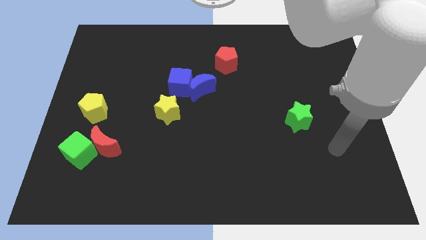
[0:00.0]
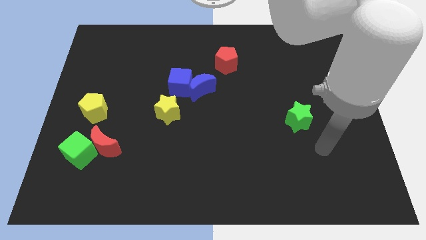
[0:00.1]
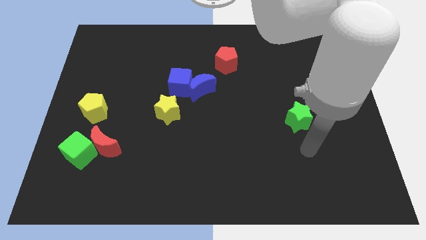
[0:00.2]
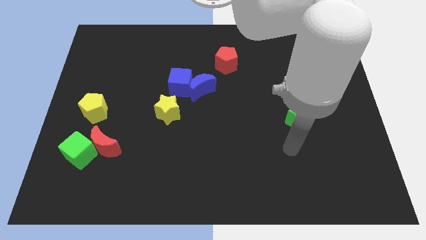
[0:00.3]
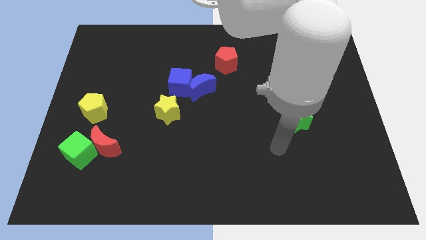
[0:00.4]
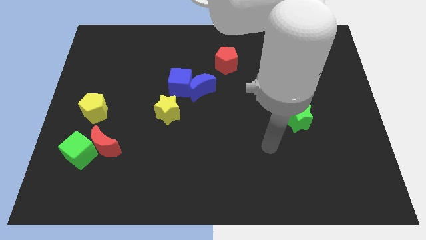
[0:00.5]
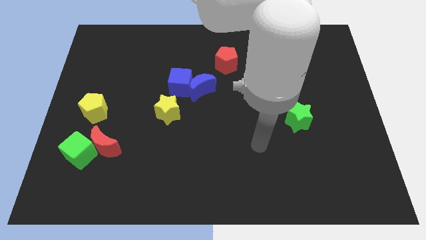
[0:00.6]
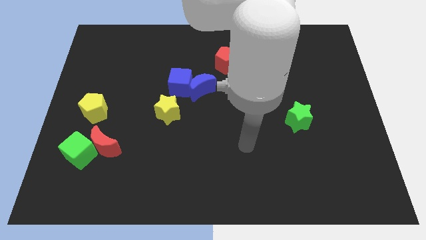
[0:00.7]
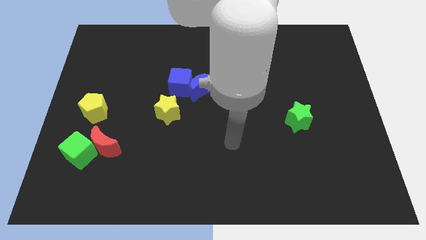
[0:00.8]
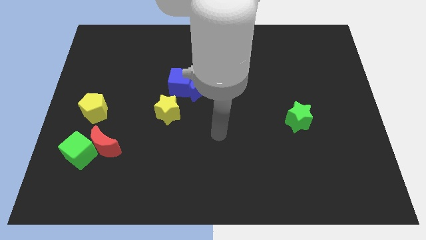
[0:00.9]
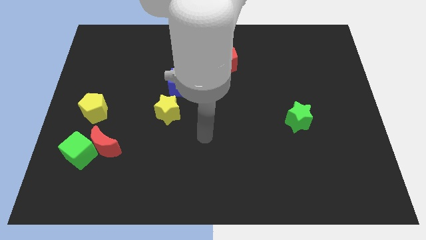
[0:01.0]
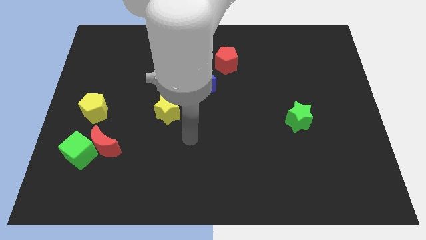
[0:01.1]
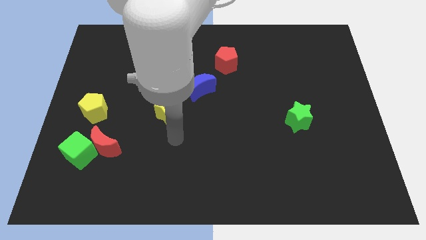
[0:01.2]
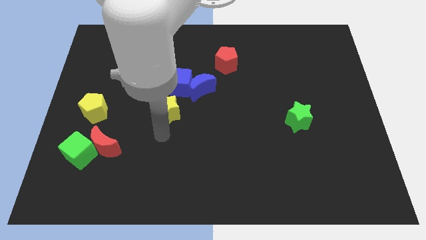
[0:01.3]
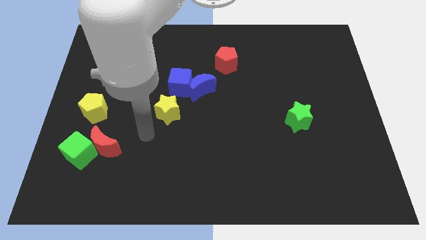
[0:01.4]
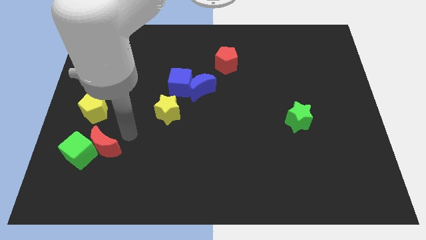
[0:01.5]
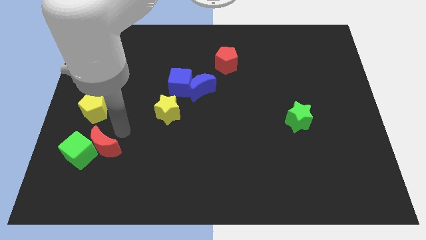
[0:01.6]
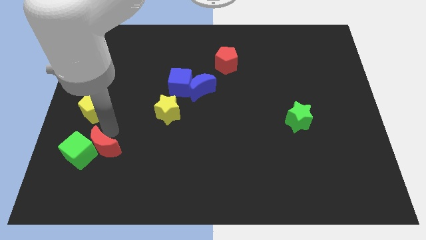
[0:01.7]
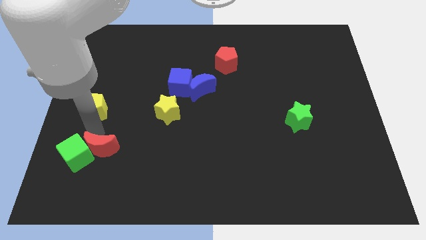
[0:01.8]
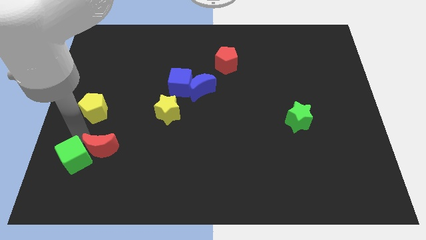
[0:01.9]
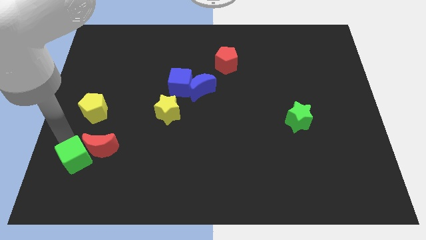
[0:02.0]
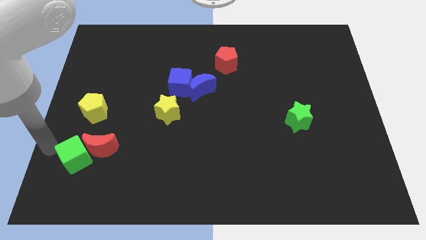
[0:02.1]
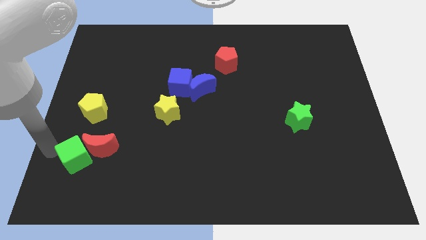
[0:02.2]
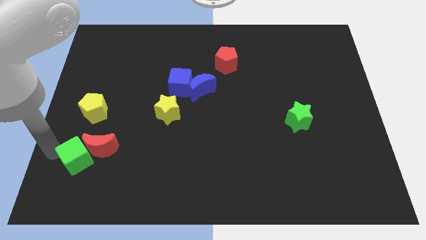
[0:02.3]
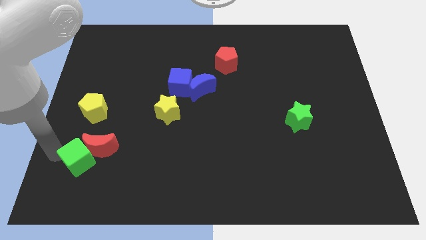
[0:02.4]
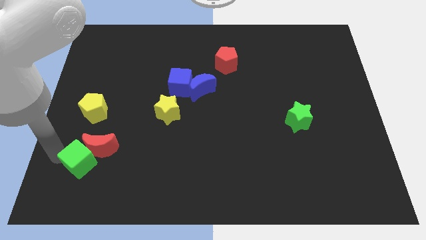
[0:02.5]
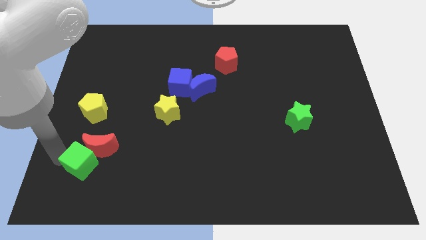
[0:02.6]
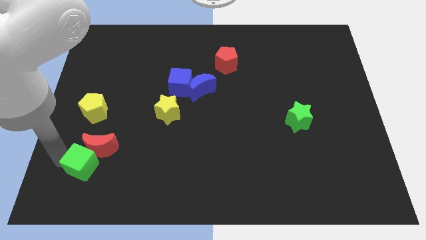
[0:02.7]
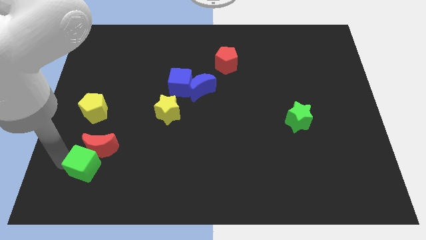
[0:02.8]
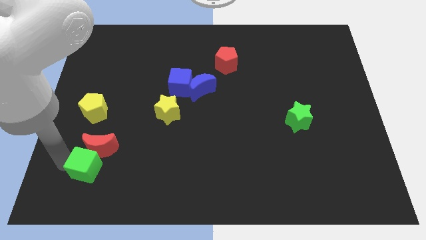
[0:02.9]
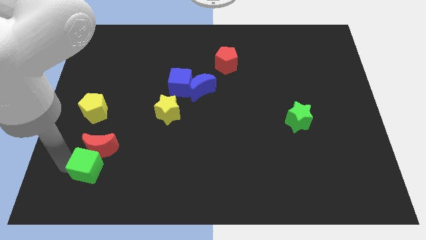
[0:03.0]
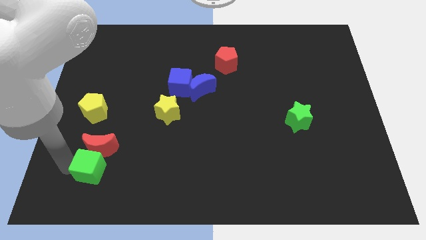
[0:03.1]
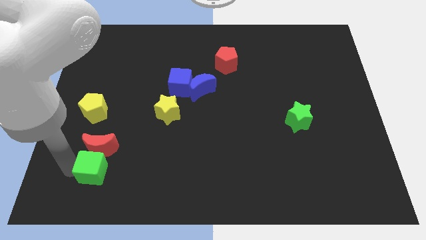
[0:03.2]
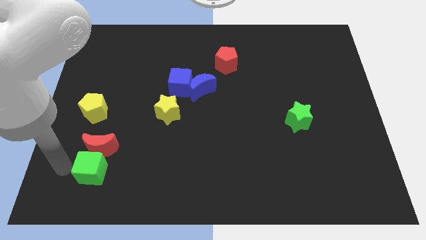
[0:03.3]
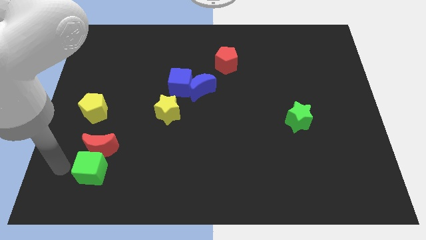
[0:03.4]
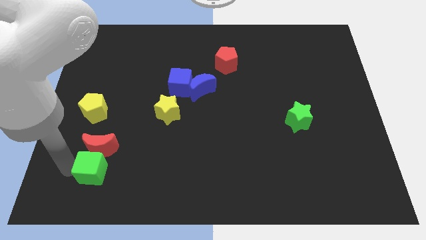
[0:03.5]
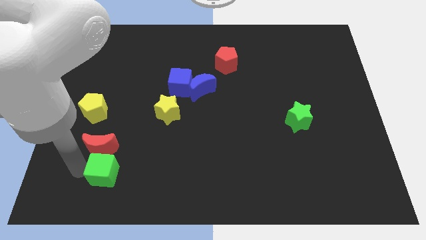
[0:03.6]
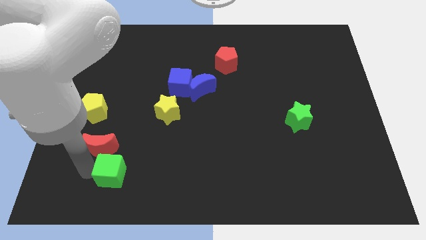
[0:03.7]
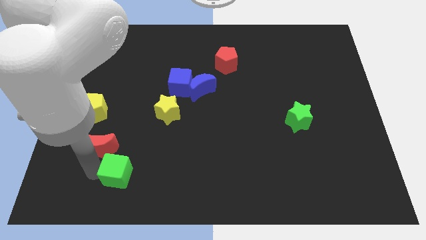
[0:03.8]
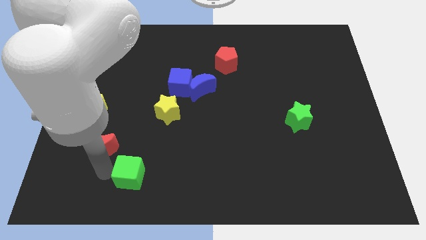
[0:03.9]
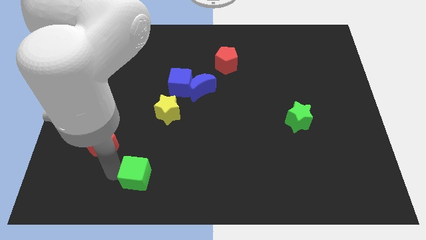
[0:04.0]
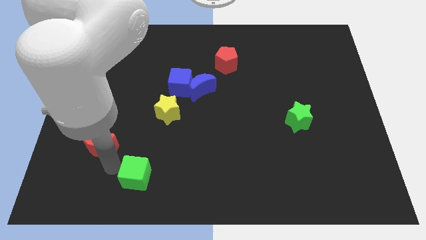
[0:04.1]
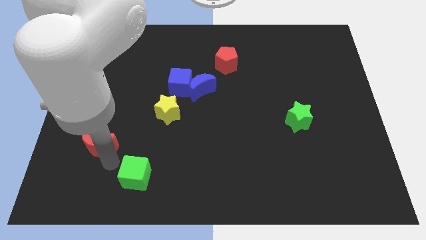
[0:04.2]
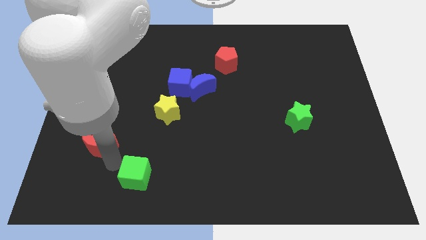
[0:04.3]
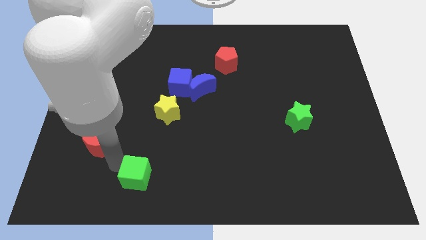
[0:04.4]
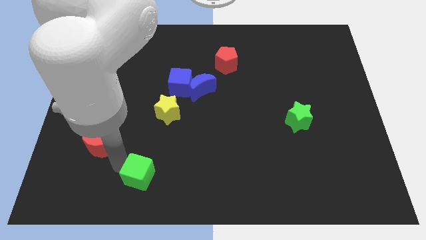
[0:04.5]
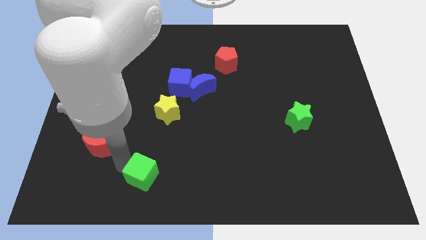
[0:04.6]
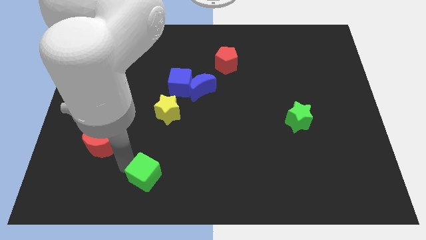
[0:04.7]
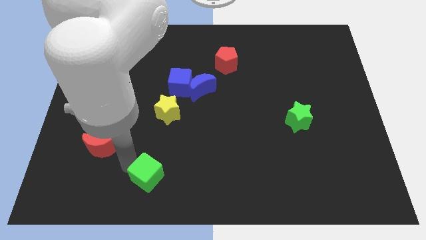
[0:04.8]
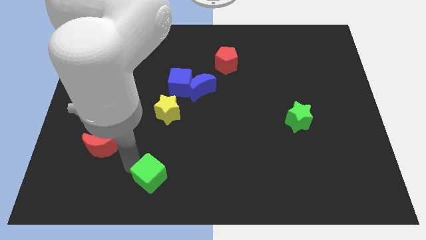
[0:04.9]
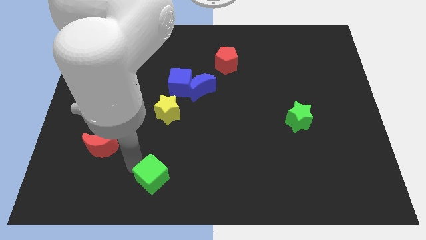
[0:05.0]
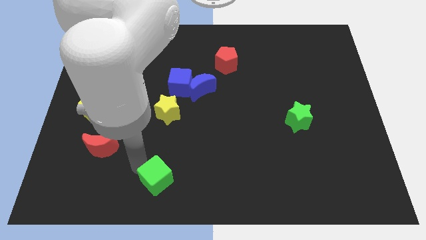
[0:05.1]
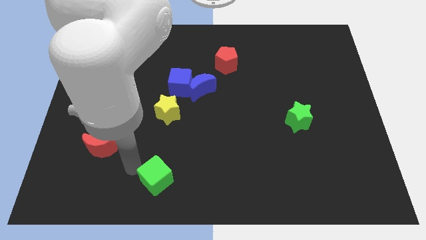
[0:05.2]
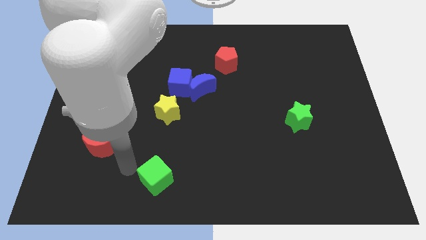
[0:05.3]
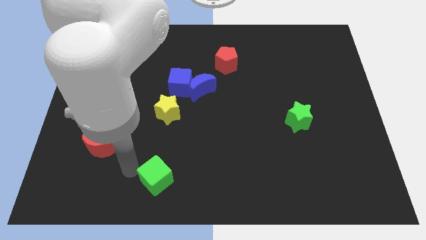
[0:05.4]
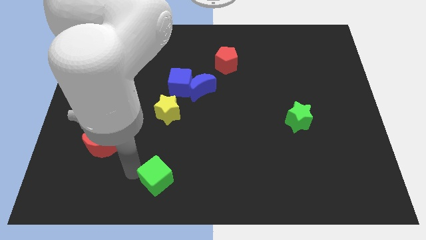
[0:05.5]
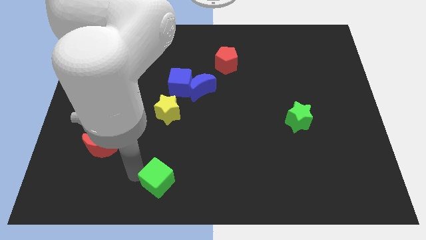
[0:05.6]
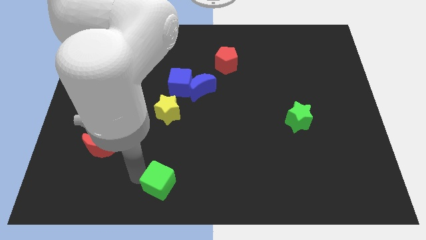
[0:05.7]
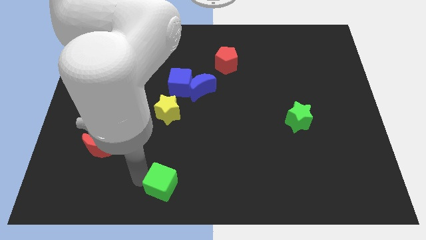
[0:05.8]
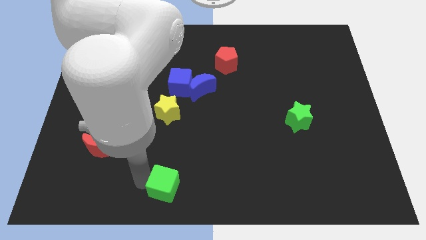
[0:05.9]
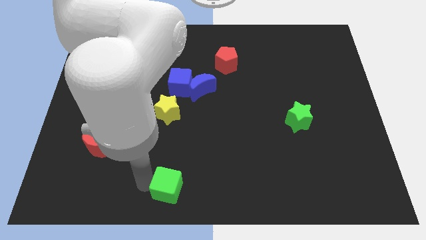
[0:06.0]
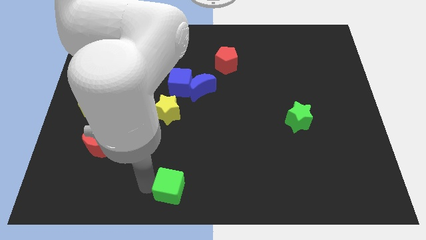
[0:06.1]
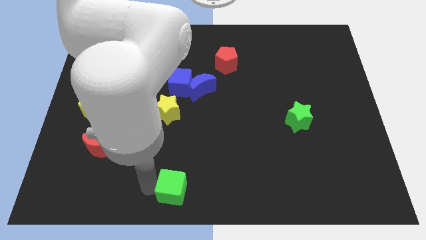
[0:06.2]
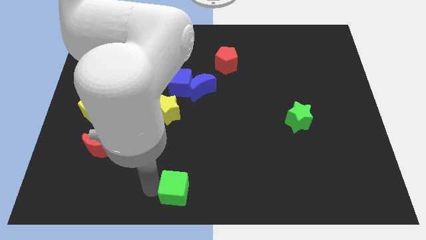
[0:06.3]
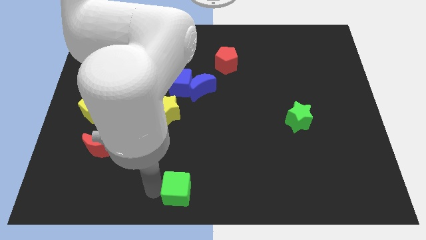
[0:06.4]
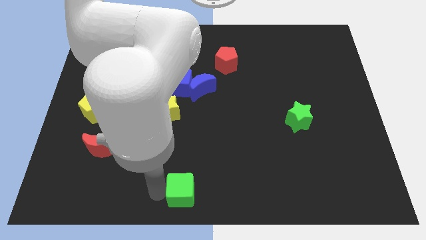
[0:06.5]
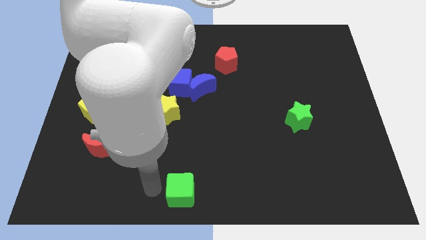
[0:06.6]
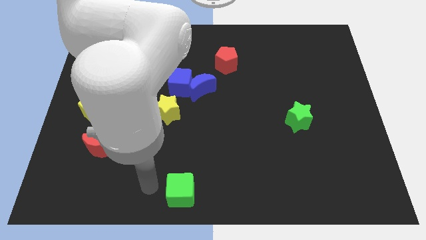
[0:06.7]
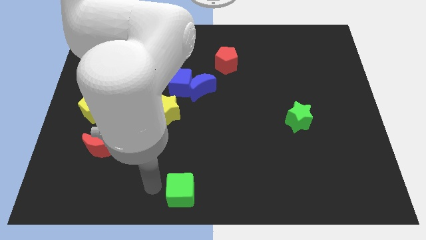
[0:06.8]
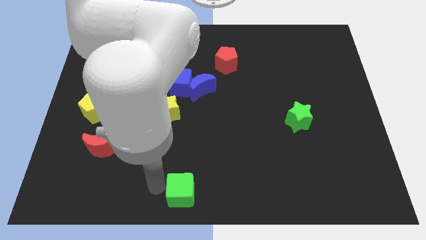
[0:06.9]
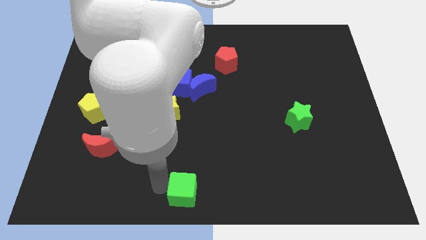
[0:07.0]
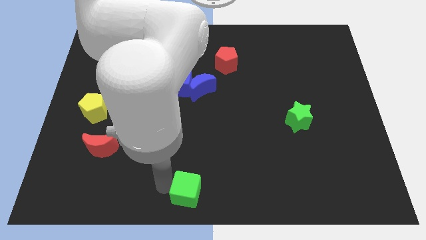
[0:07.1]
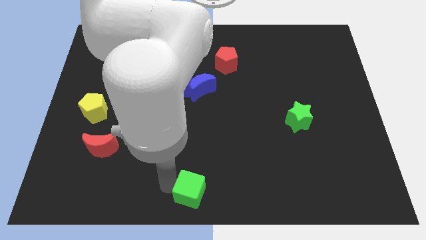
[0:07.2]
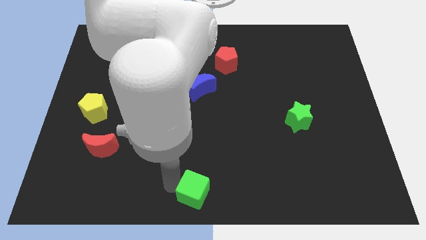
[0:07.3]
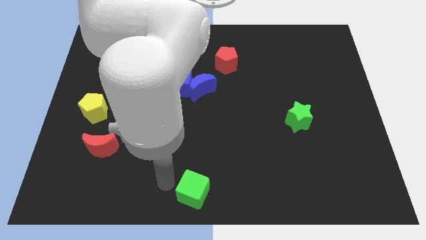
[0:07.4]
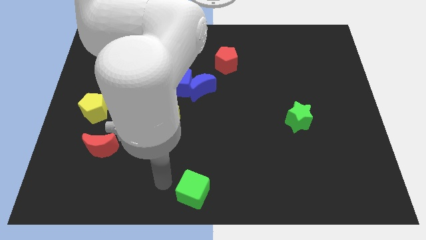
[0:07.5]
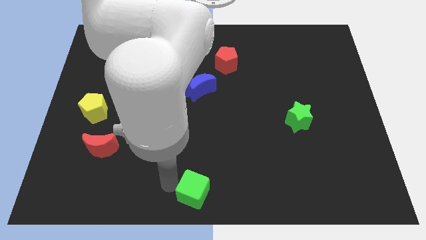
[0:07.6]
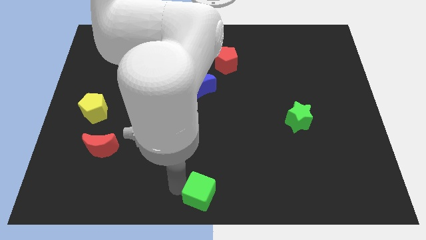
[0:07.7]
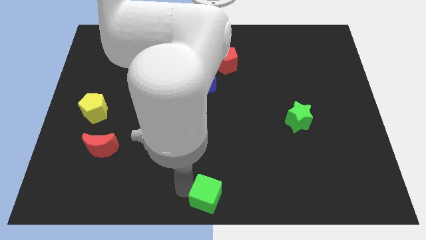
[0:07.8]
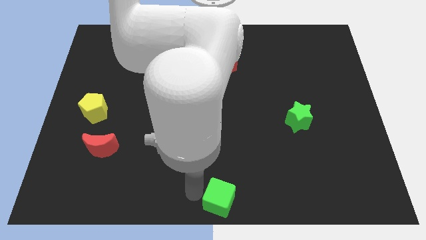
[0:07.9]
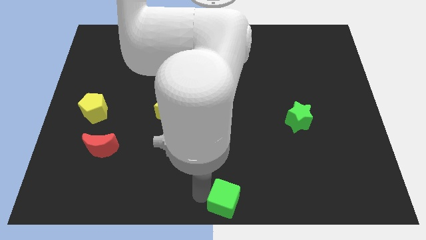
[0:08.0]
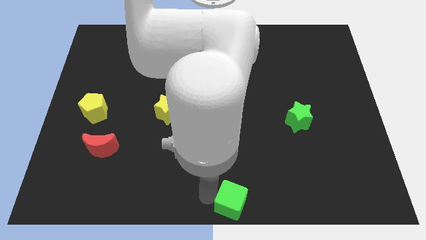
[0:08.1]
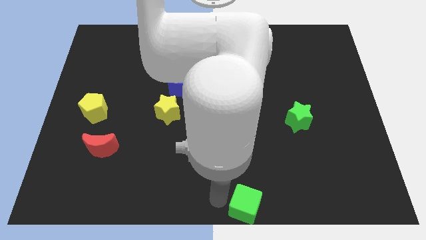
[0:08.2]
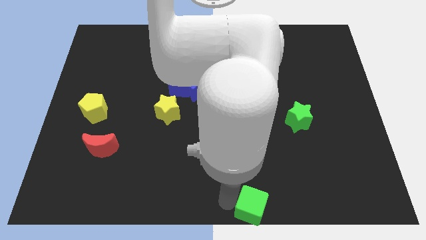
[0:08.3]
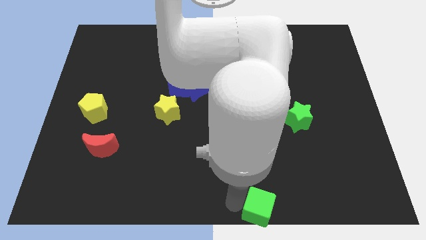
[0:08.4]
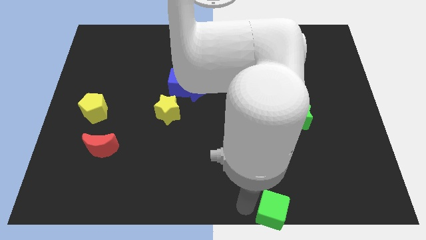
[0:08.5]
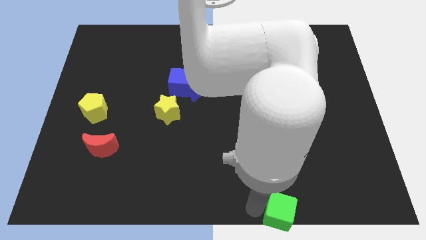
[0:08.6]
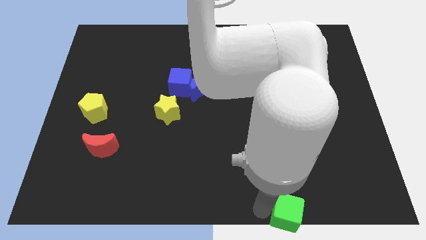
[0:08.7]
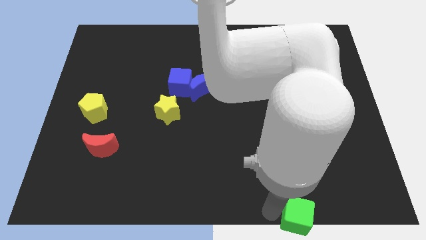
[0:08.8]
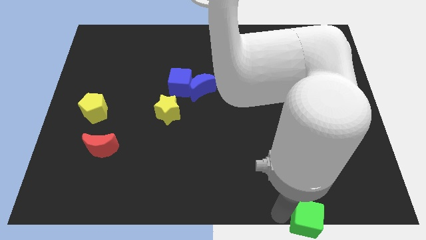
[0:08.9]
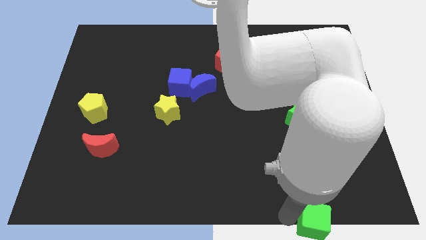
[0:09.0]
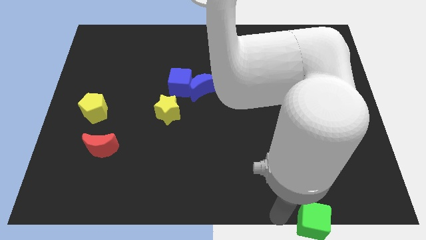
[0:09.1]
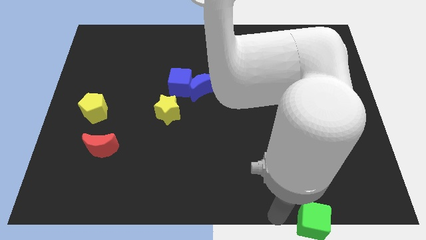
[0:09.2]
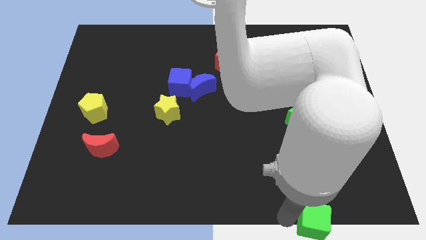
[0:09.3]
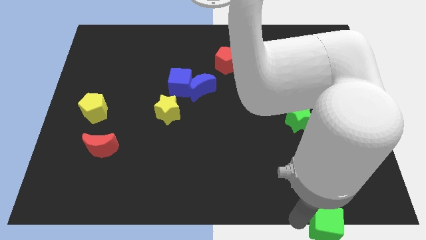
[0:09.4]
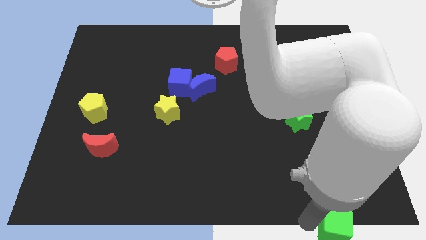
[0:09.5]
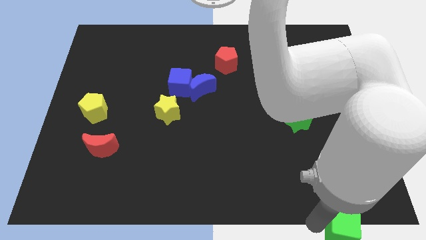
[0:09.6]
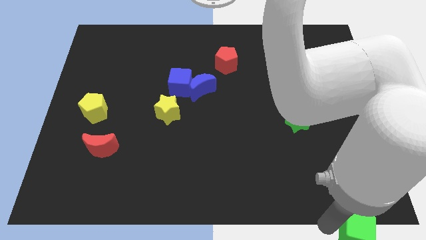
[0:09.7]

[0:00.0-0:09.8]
slide the green cube to the bottom right of the board
